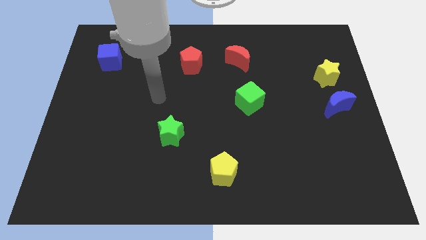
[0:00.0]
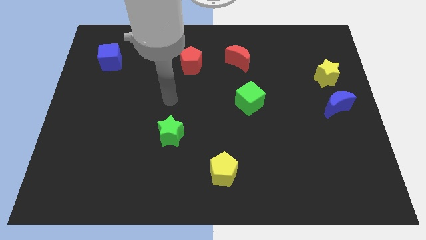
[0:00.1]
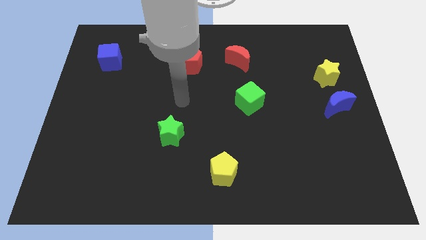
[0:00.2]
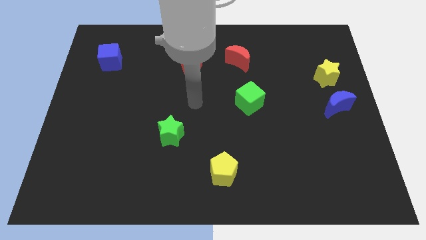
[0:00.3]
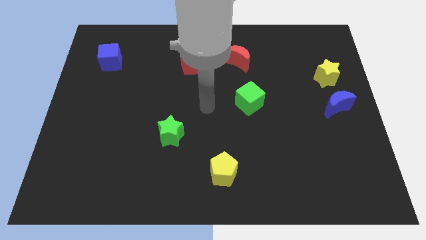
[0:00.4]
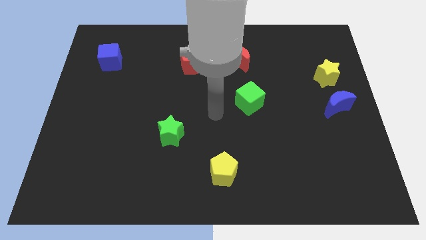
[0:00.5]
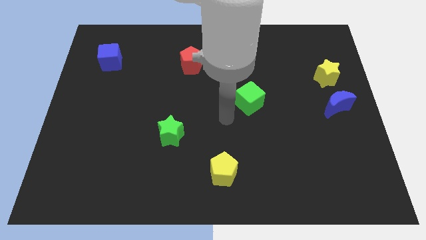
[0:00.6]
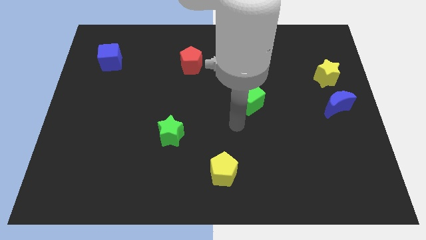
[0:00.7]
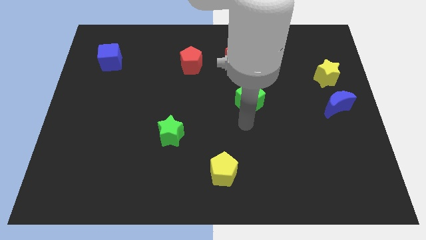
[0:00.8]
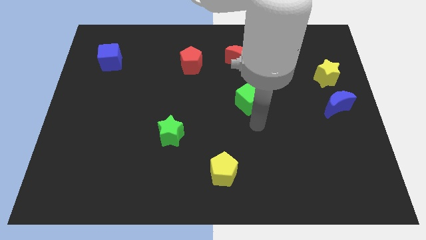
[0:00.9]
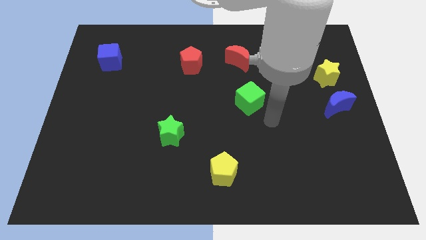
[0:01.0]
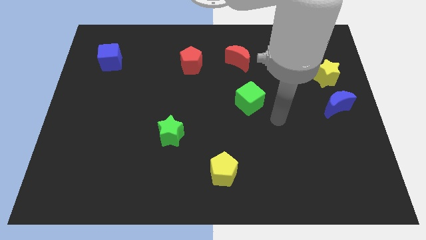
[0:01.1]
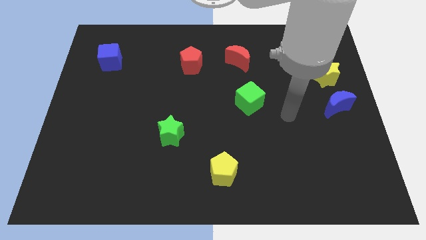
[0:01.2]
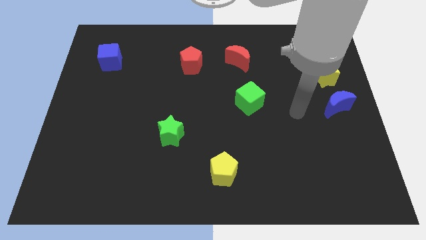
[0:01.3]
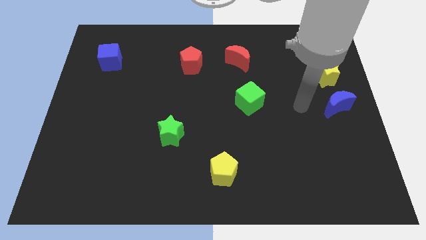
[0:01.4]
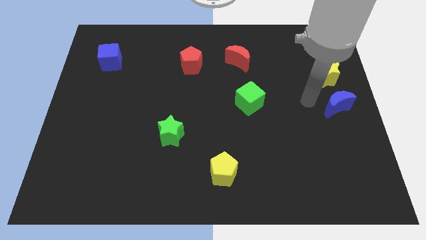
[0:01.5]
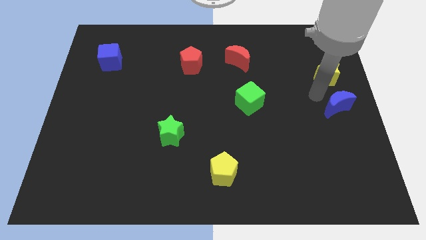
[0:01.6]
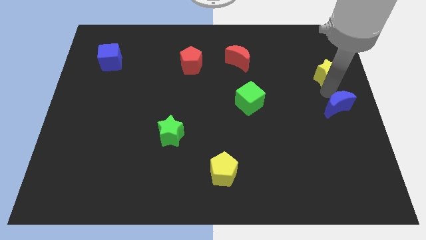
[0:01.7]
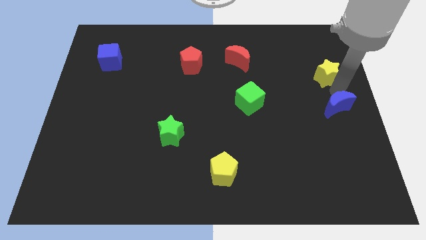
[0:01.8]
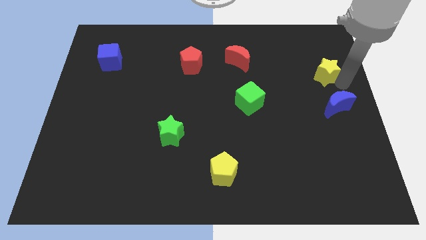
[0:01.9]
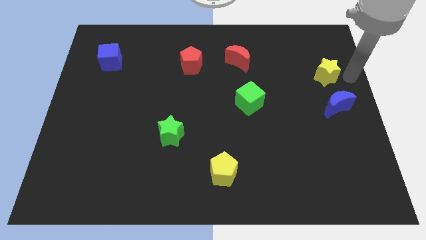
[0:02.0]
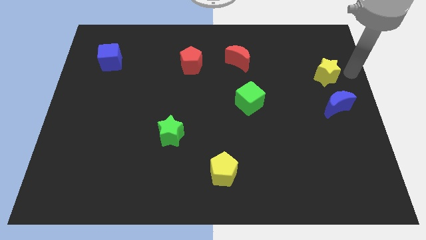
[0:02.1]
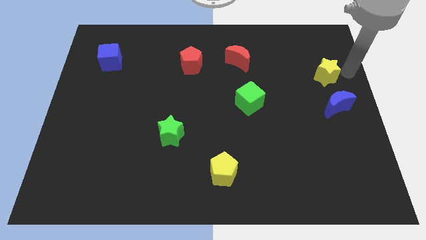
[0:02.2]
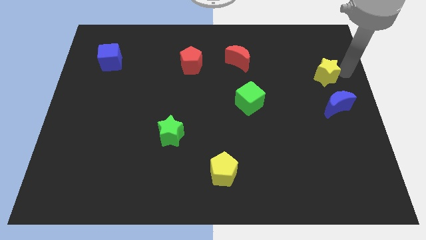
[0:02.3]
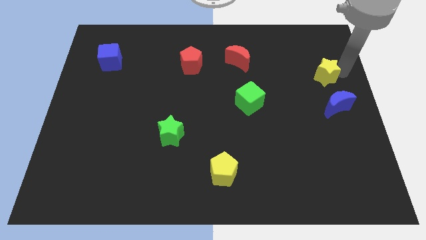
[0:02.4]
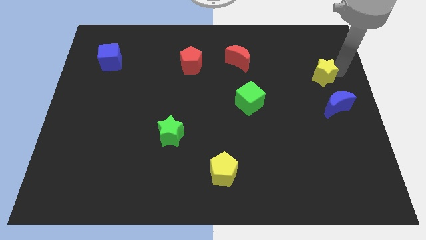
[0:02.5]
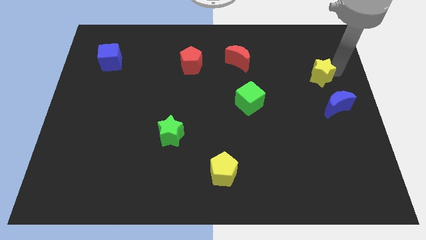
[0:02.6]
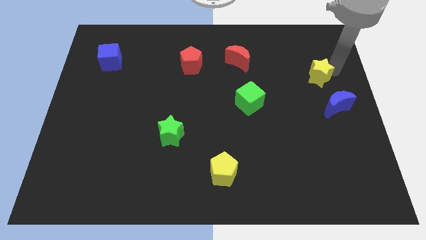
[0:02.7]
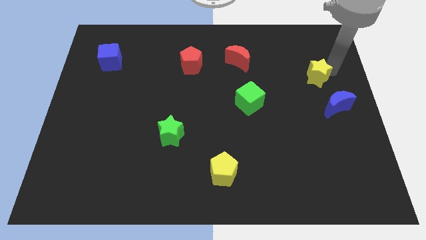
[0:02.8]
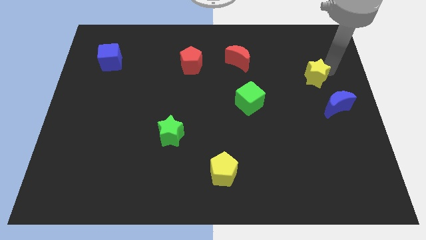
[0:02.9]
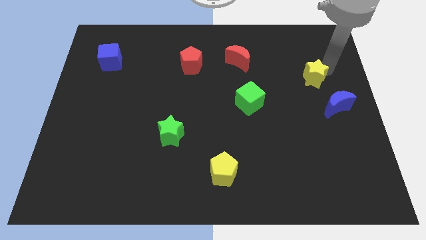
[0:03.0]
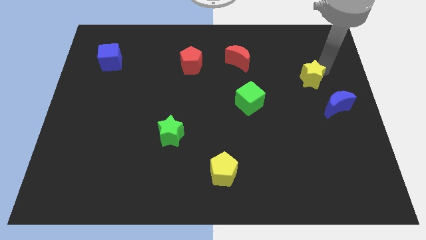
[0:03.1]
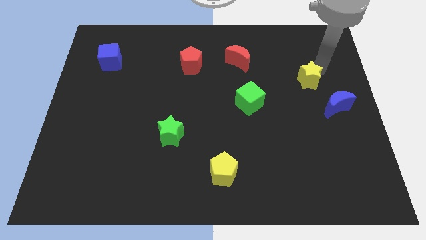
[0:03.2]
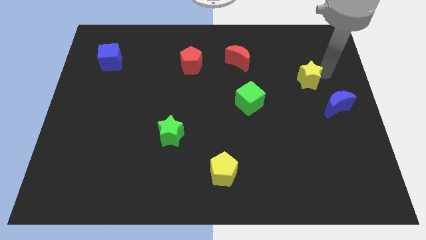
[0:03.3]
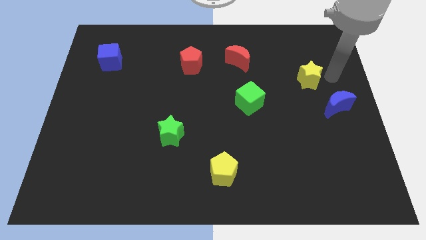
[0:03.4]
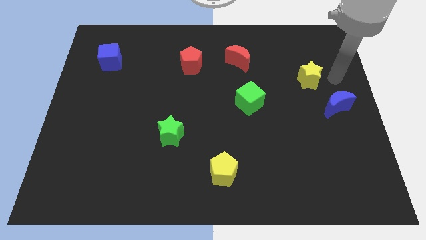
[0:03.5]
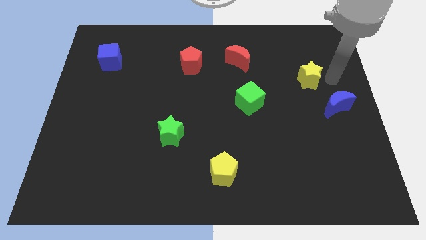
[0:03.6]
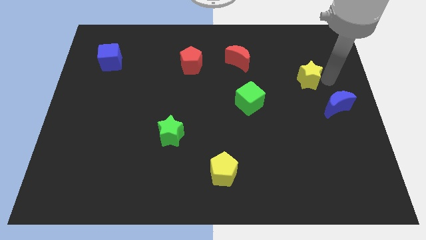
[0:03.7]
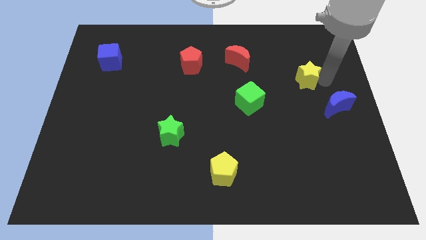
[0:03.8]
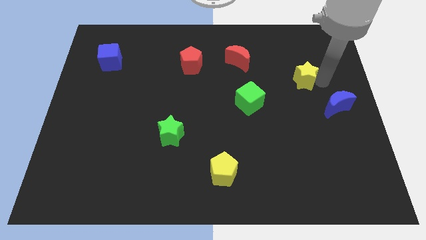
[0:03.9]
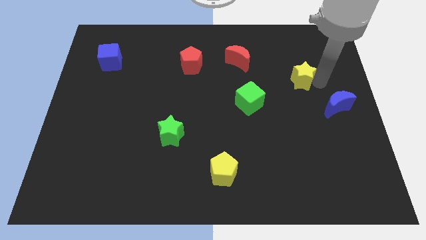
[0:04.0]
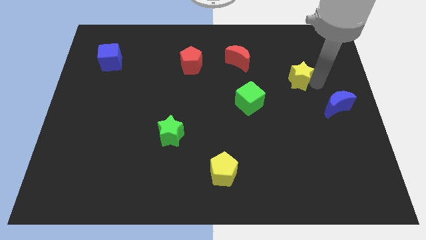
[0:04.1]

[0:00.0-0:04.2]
move the yellow star a little bit left

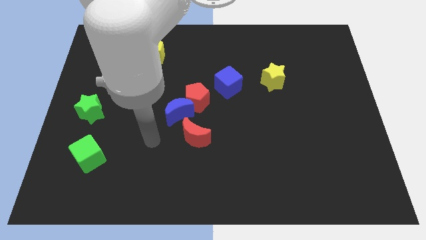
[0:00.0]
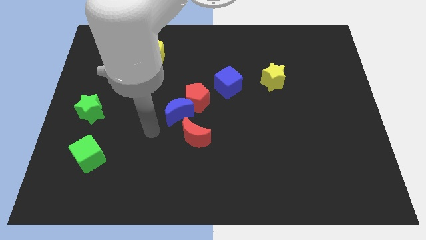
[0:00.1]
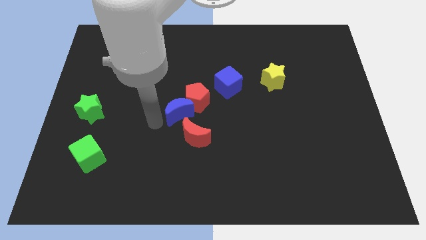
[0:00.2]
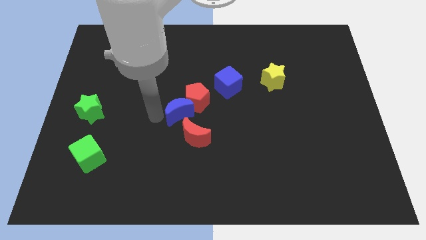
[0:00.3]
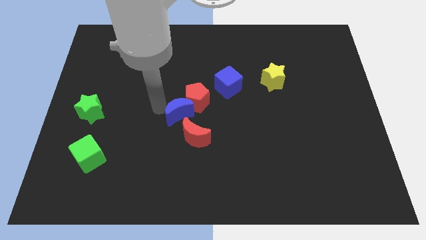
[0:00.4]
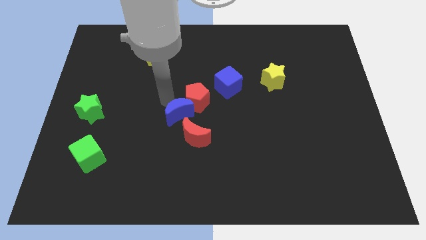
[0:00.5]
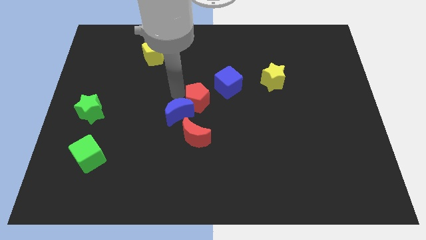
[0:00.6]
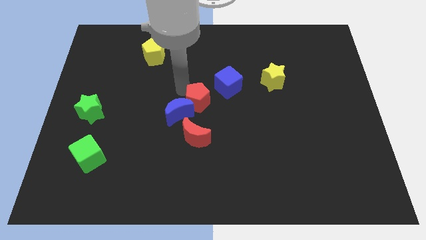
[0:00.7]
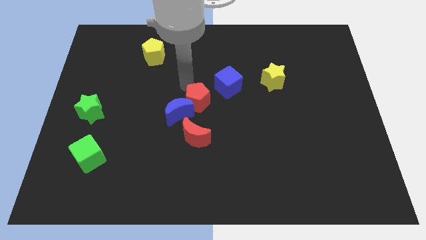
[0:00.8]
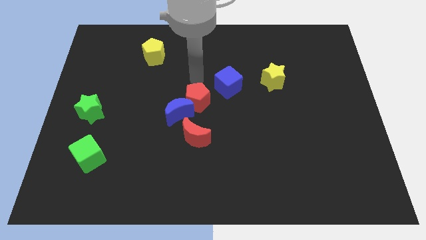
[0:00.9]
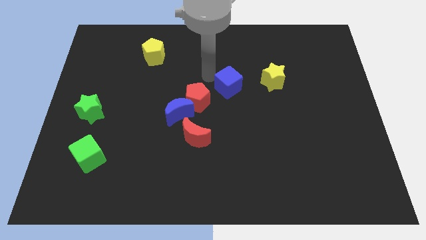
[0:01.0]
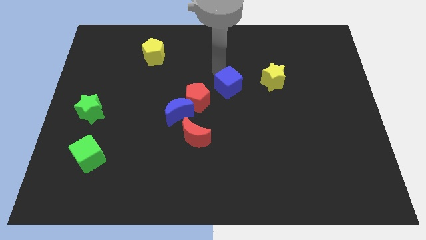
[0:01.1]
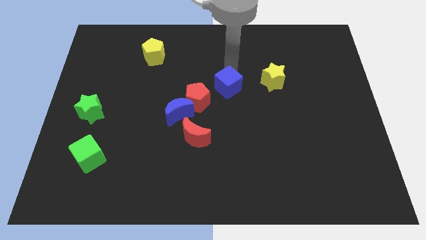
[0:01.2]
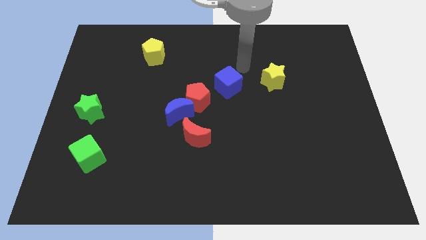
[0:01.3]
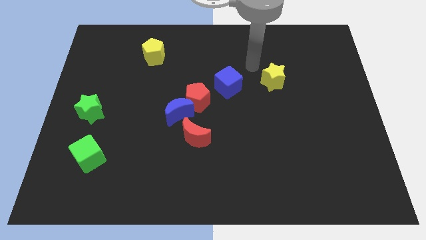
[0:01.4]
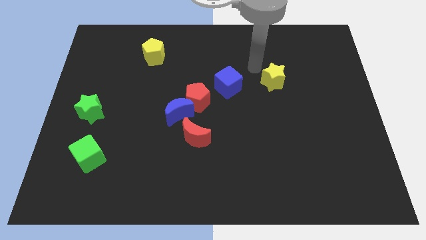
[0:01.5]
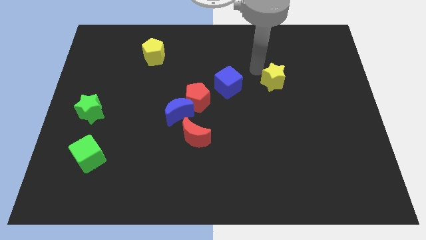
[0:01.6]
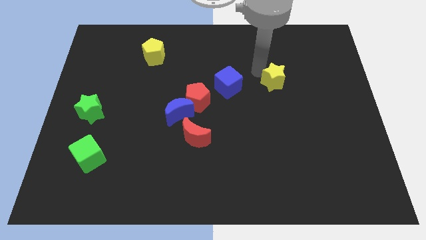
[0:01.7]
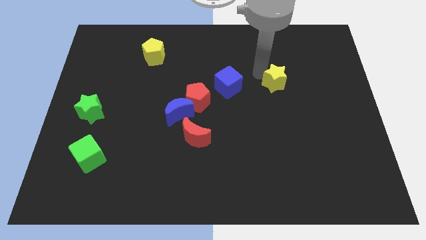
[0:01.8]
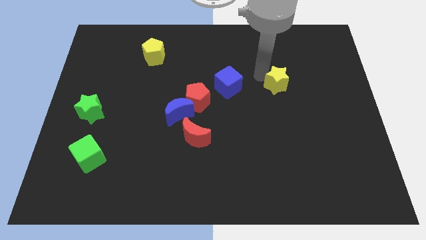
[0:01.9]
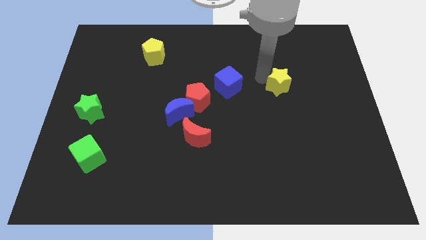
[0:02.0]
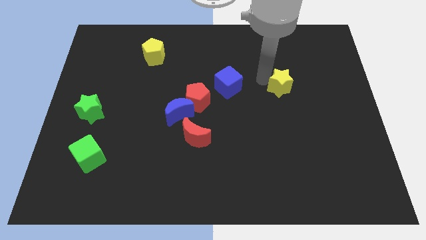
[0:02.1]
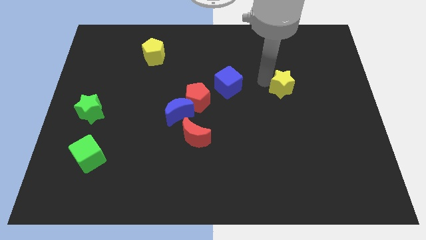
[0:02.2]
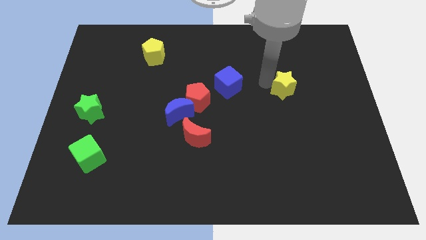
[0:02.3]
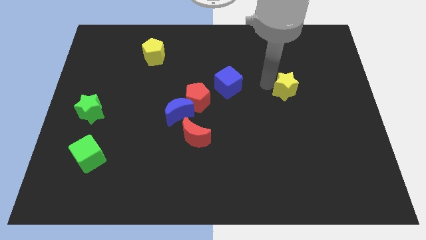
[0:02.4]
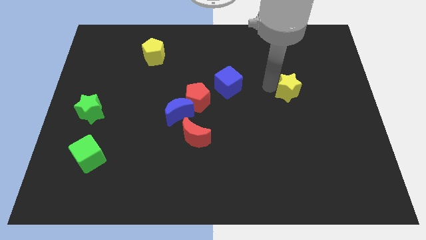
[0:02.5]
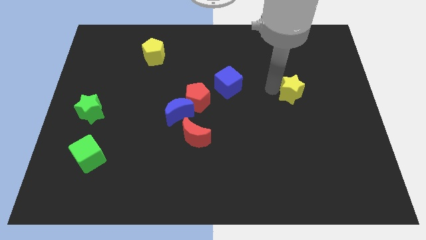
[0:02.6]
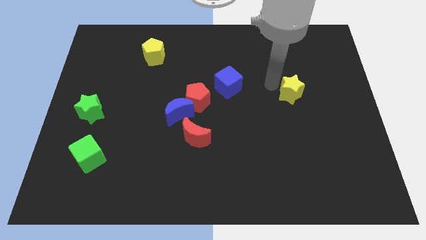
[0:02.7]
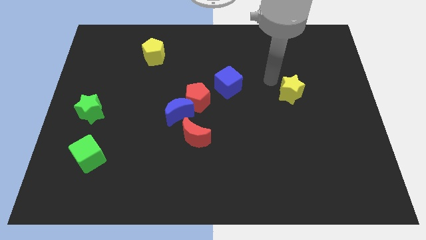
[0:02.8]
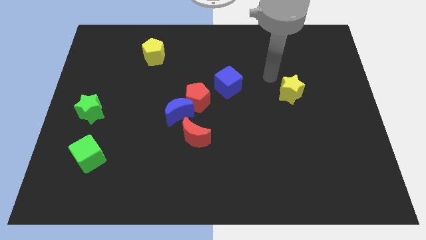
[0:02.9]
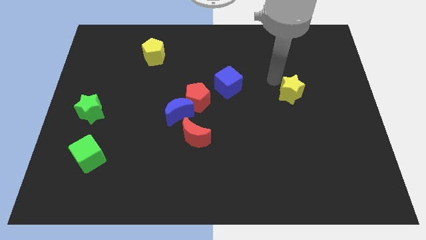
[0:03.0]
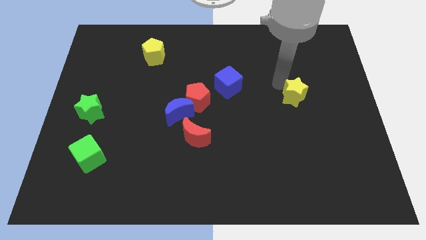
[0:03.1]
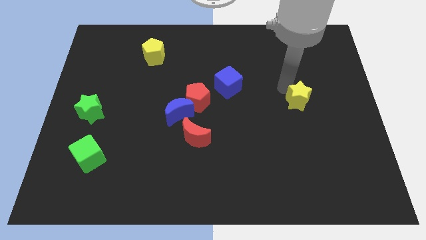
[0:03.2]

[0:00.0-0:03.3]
move the yellow star down and then to the right somewhat

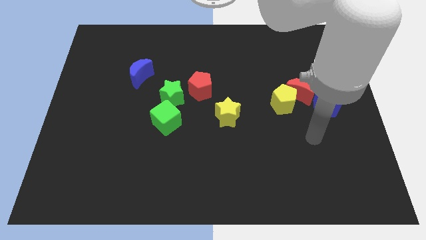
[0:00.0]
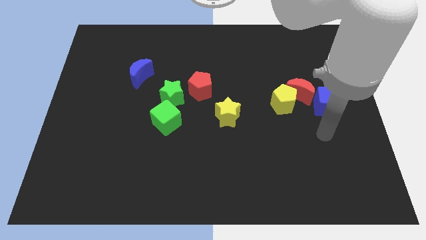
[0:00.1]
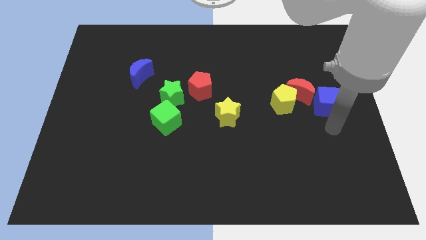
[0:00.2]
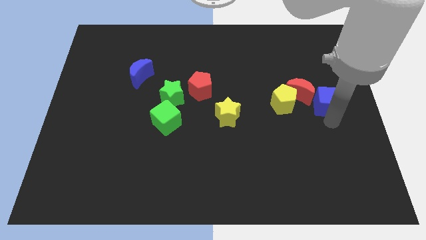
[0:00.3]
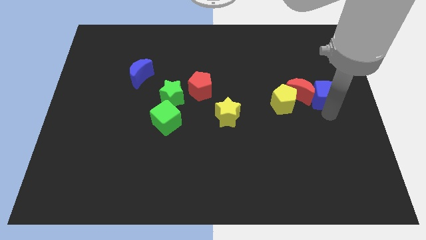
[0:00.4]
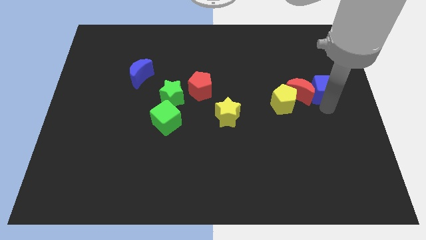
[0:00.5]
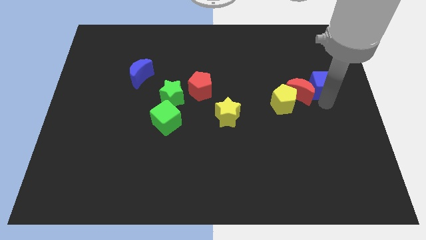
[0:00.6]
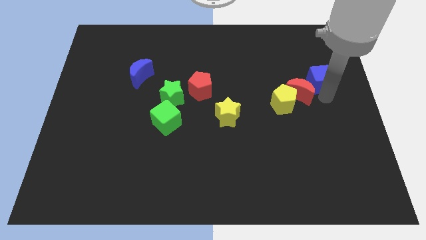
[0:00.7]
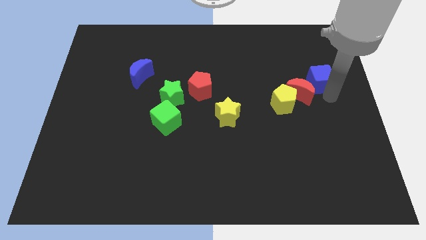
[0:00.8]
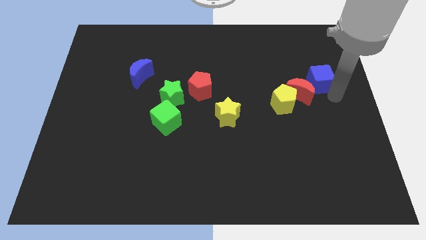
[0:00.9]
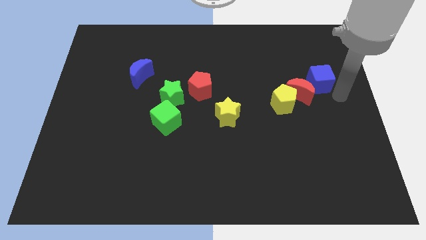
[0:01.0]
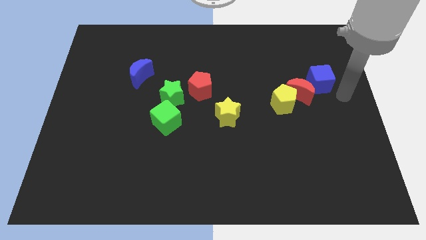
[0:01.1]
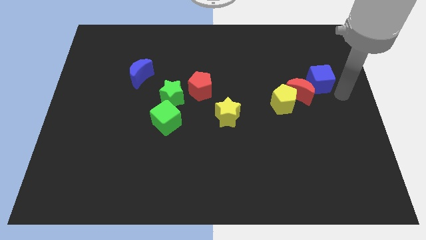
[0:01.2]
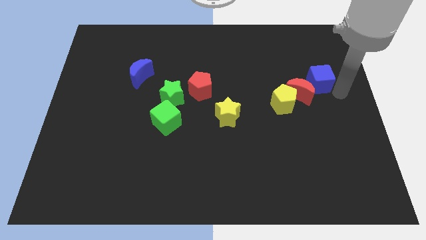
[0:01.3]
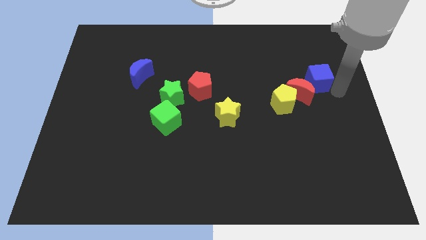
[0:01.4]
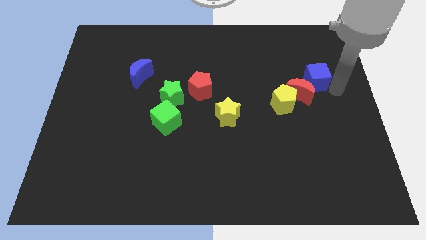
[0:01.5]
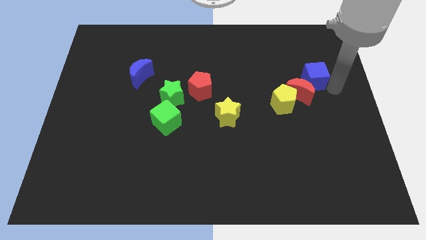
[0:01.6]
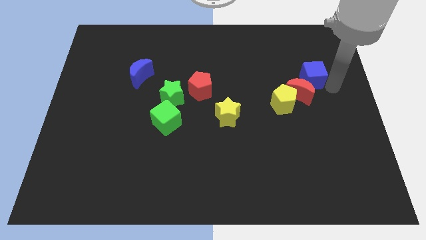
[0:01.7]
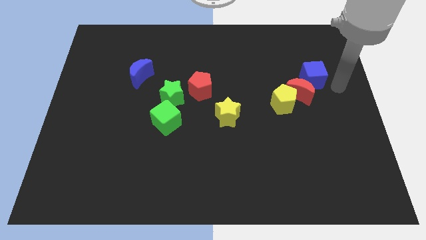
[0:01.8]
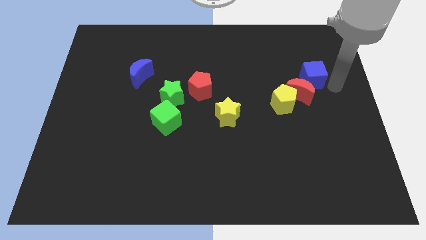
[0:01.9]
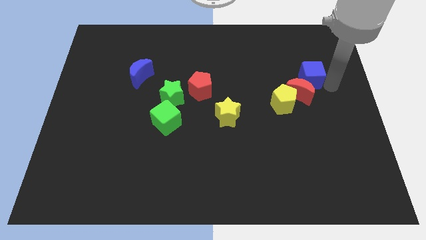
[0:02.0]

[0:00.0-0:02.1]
slide the blue cube a bit upwards and left diagonally
